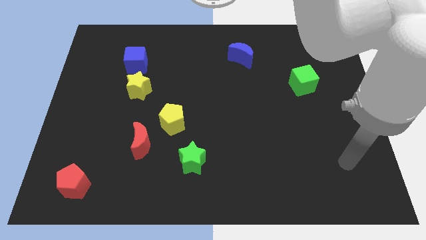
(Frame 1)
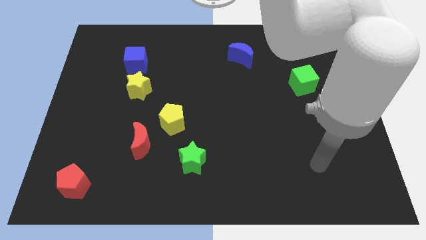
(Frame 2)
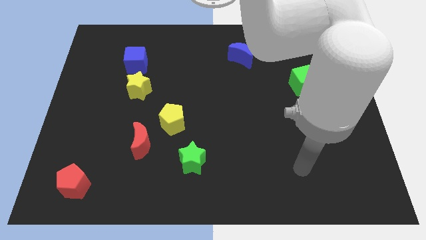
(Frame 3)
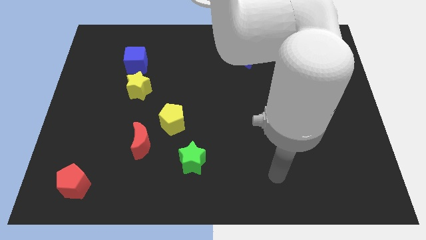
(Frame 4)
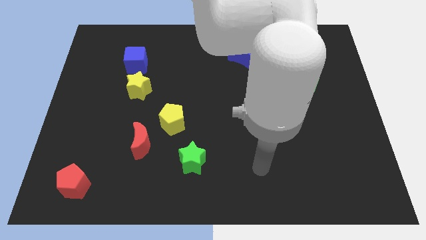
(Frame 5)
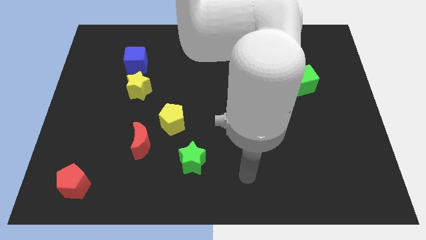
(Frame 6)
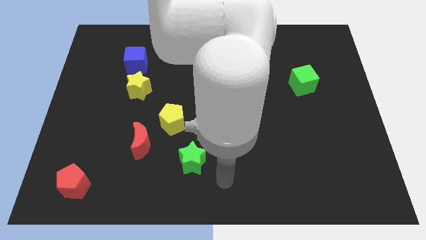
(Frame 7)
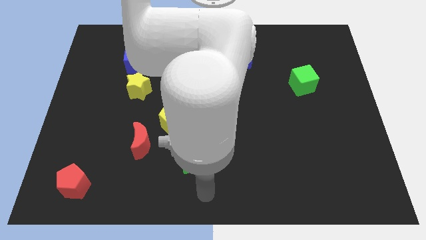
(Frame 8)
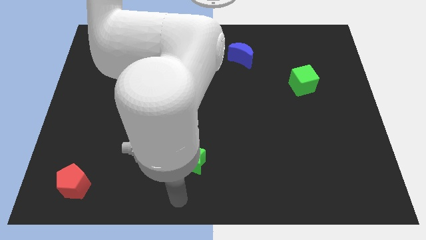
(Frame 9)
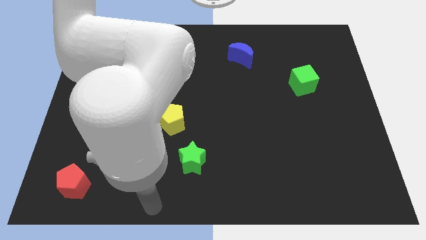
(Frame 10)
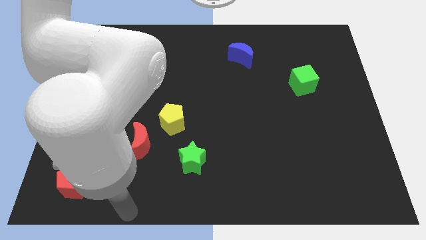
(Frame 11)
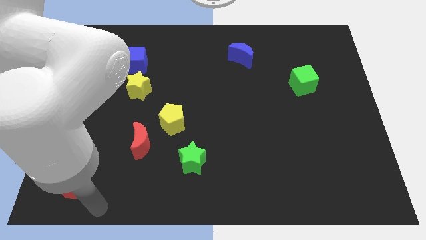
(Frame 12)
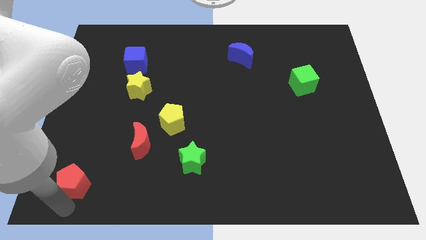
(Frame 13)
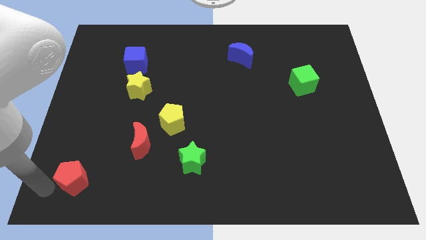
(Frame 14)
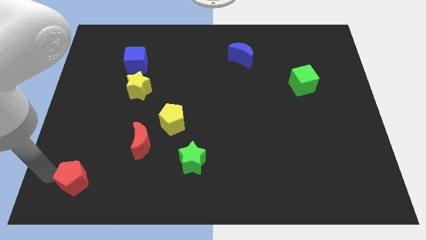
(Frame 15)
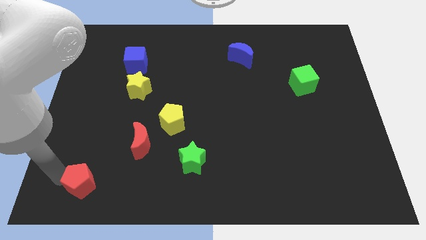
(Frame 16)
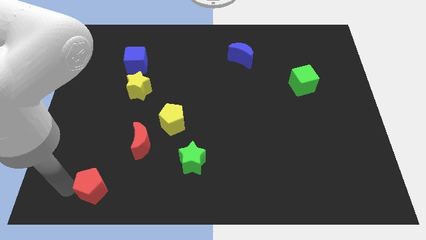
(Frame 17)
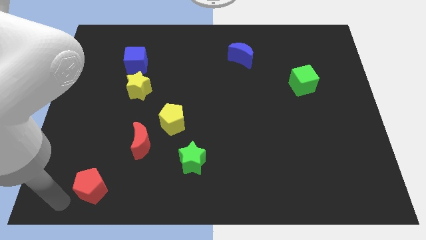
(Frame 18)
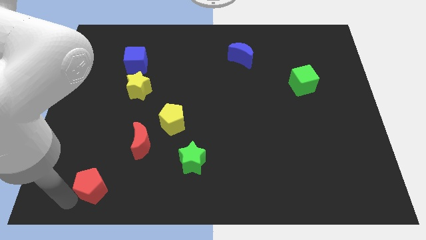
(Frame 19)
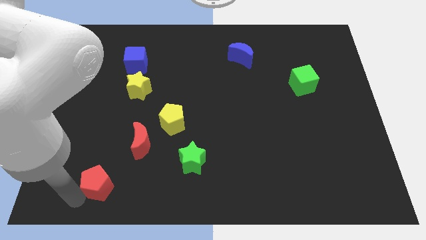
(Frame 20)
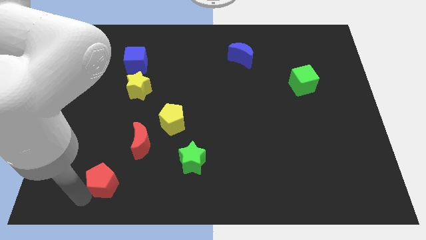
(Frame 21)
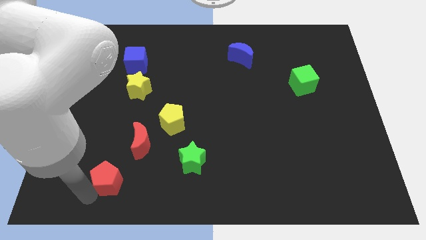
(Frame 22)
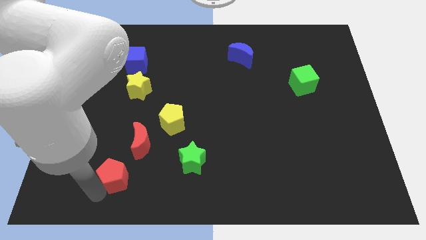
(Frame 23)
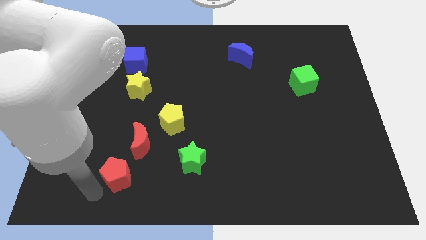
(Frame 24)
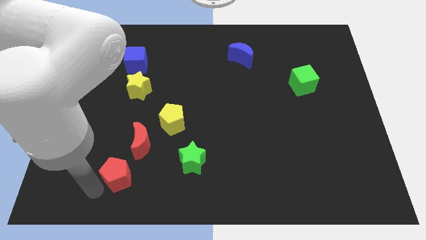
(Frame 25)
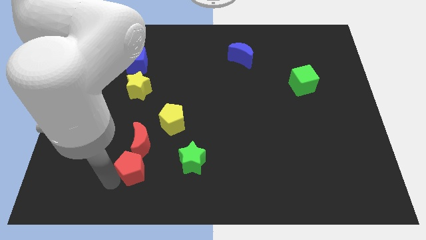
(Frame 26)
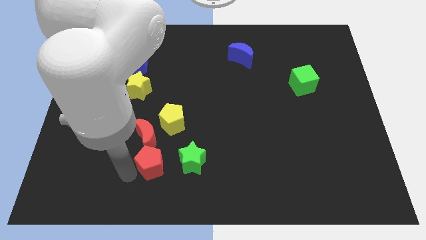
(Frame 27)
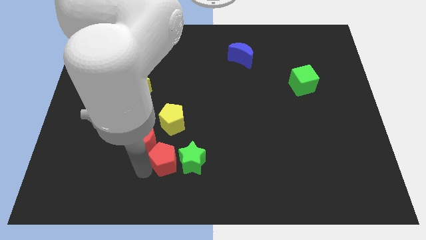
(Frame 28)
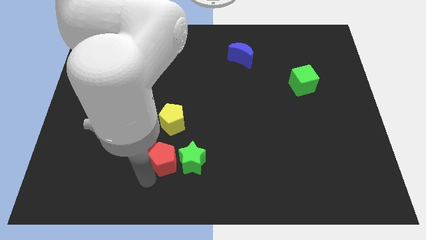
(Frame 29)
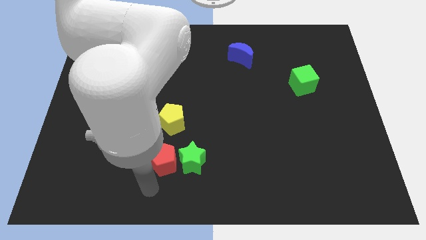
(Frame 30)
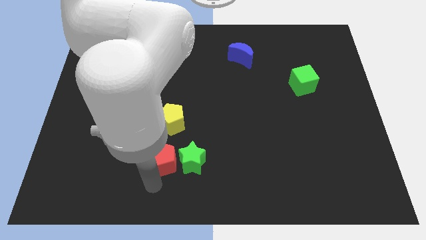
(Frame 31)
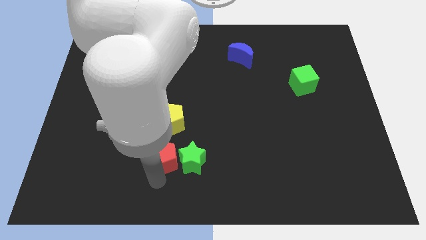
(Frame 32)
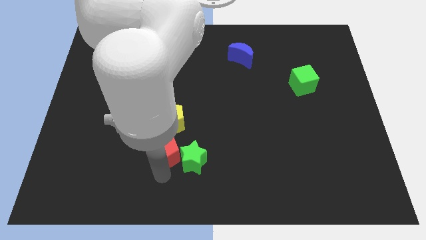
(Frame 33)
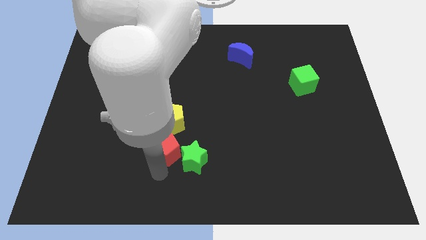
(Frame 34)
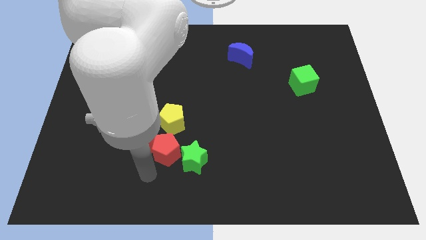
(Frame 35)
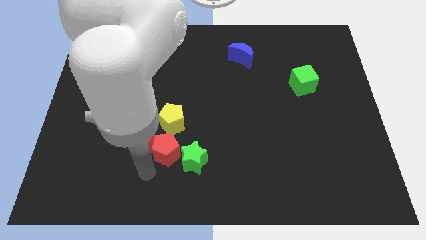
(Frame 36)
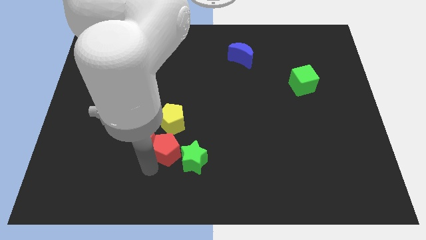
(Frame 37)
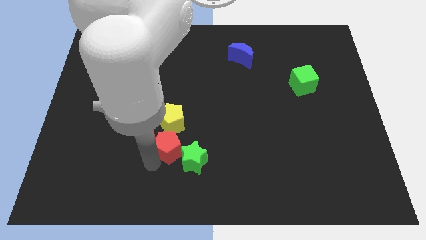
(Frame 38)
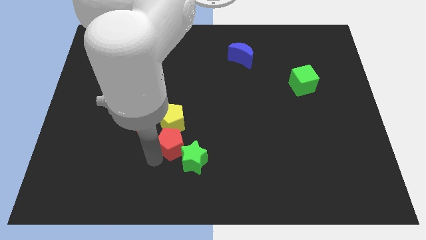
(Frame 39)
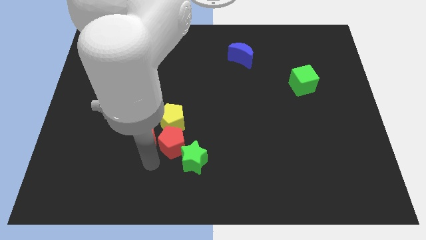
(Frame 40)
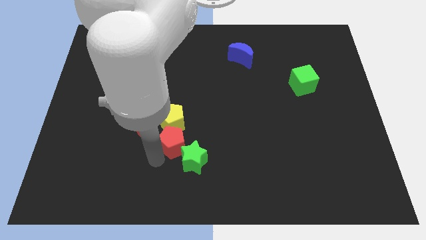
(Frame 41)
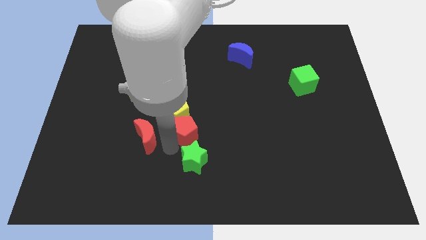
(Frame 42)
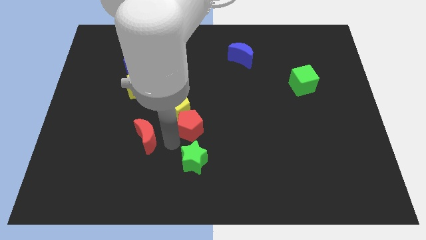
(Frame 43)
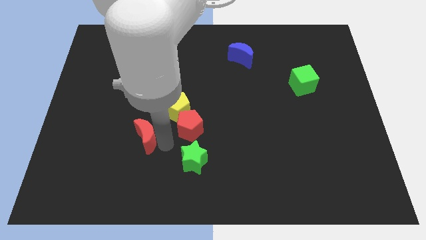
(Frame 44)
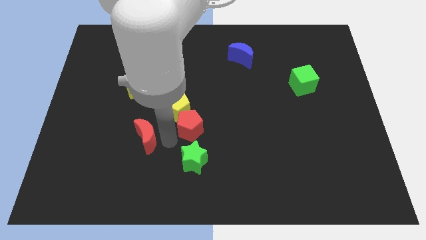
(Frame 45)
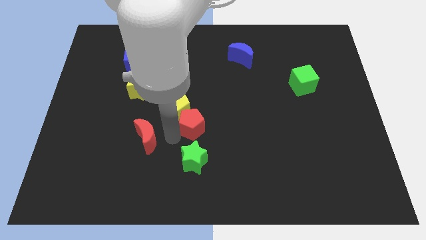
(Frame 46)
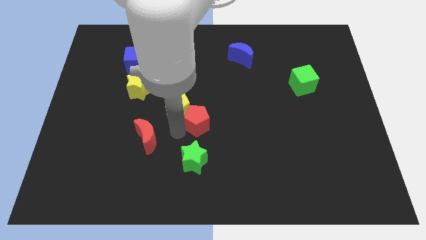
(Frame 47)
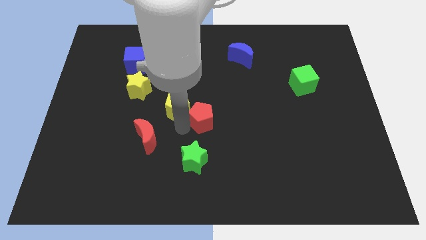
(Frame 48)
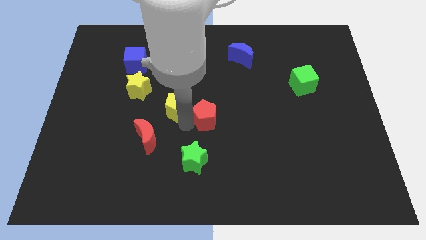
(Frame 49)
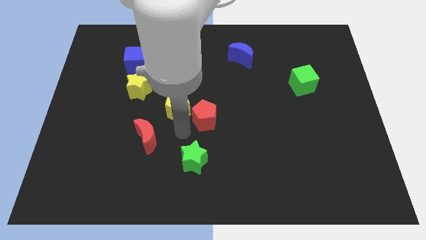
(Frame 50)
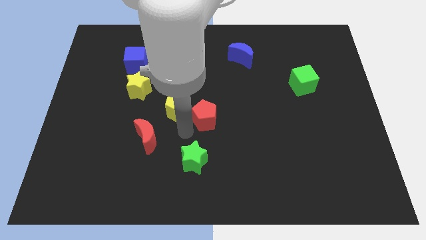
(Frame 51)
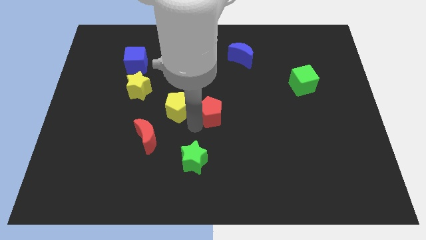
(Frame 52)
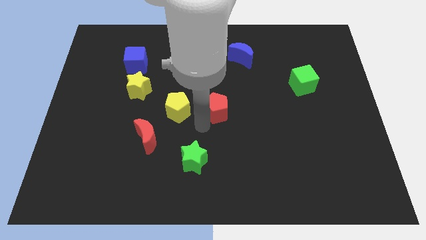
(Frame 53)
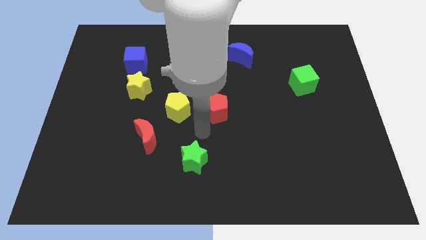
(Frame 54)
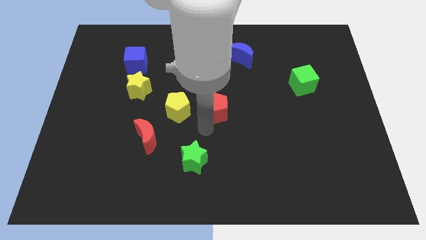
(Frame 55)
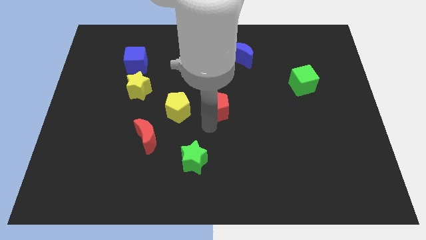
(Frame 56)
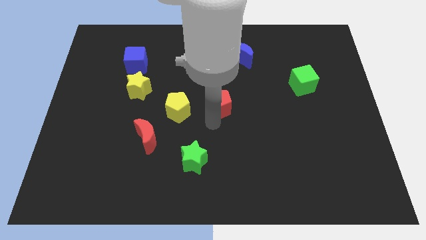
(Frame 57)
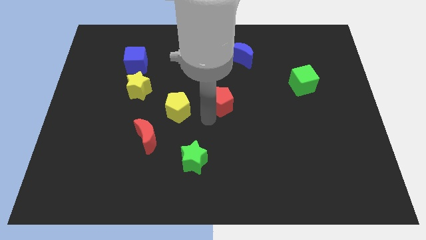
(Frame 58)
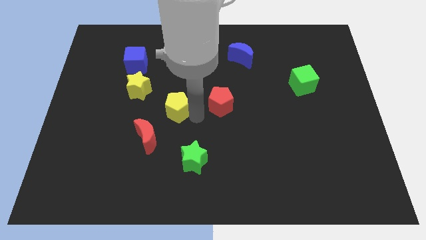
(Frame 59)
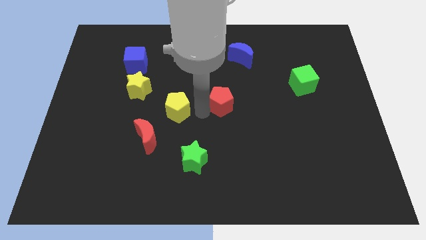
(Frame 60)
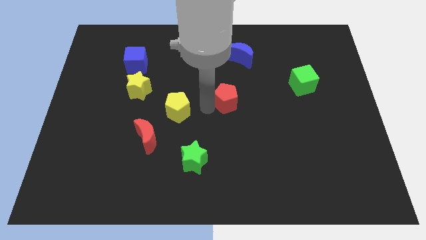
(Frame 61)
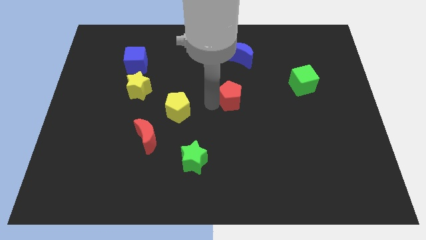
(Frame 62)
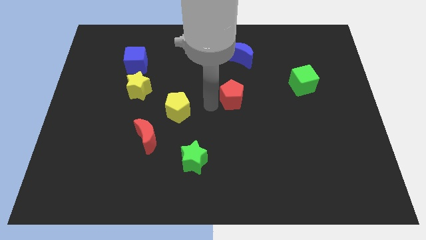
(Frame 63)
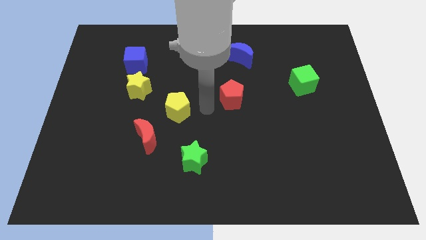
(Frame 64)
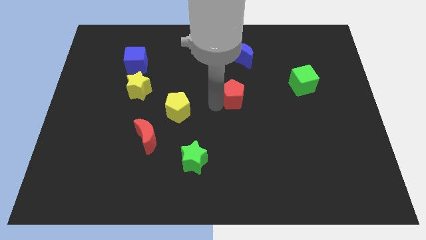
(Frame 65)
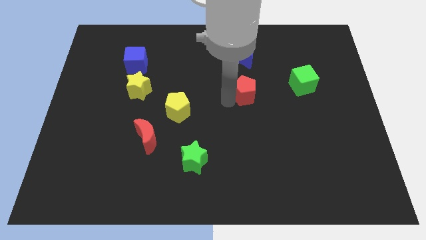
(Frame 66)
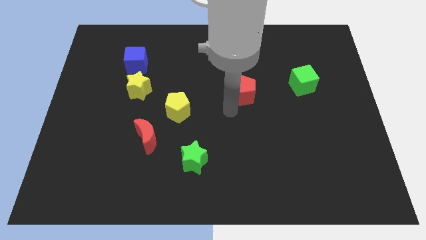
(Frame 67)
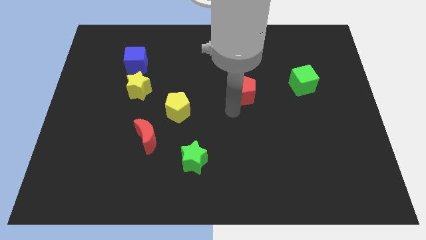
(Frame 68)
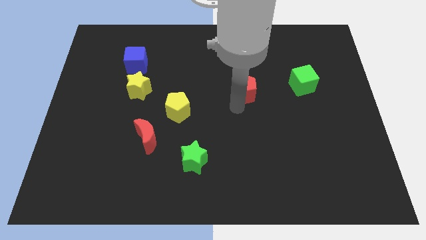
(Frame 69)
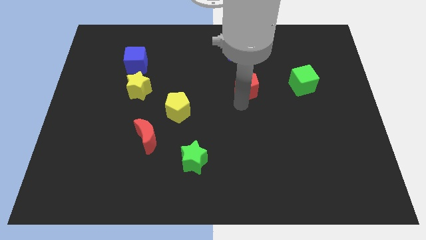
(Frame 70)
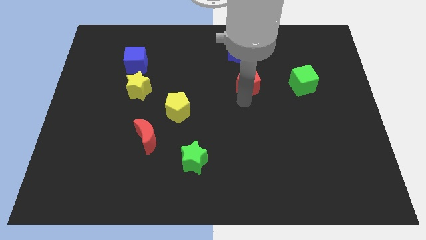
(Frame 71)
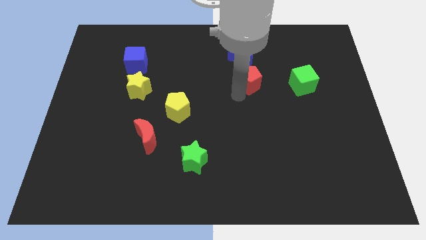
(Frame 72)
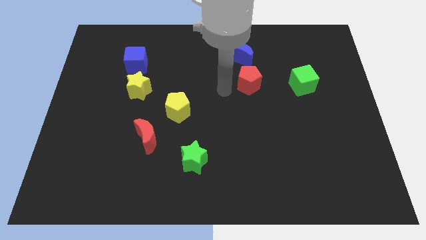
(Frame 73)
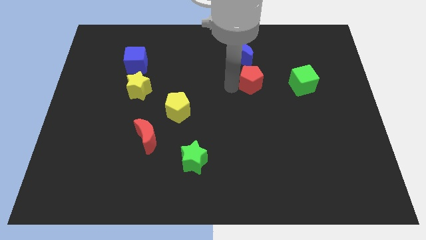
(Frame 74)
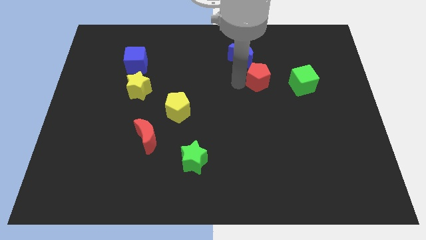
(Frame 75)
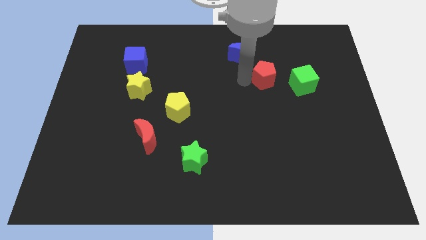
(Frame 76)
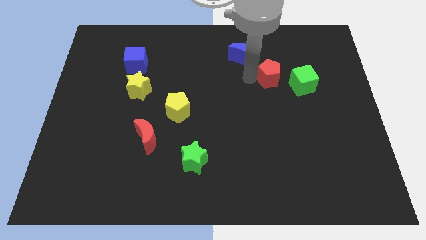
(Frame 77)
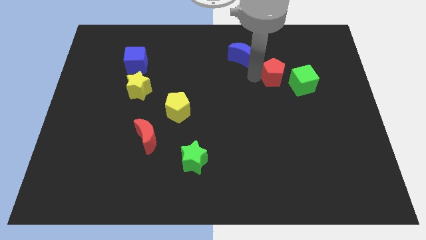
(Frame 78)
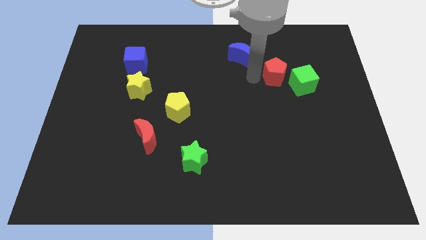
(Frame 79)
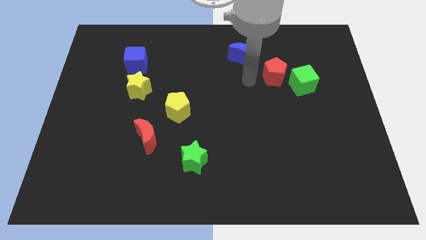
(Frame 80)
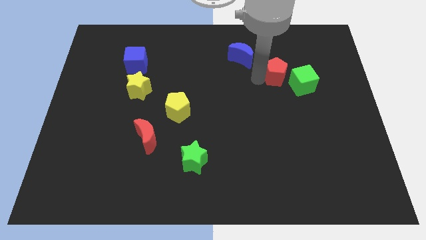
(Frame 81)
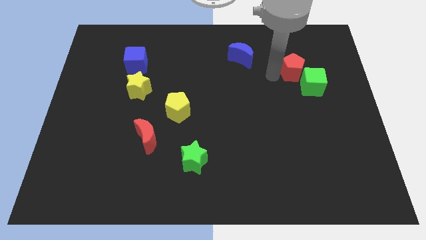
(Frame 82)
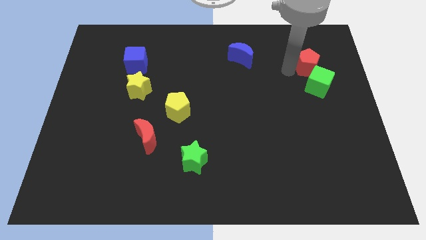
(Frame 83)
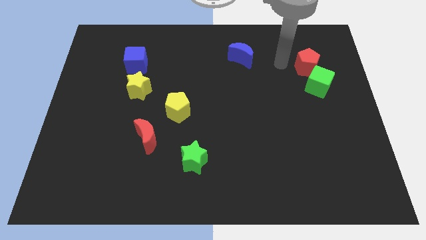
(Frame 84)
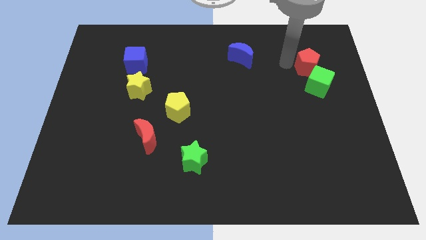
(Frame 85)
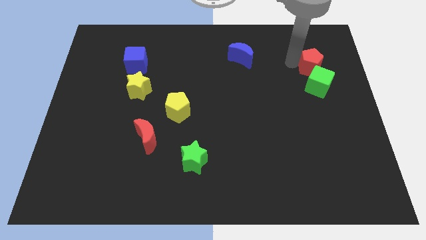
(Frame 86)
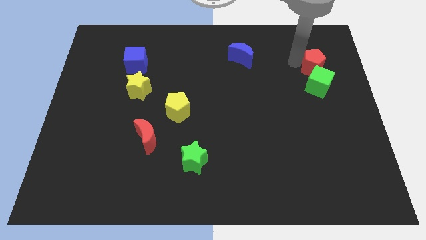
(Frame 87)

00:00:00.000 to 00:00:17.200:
move the red pentagon diagonally up and to the right of the green cube
